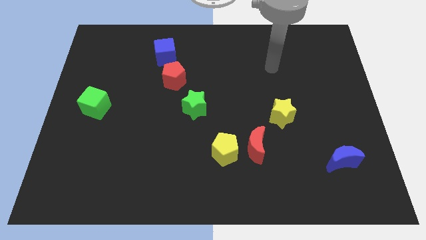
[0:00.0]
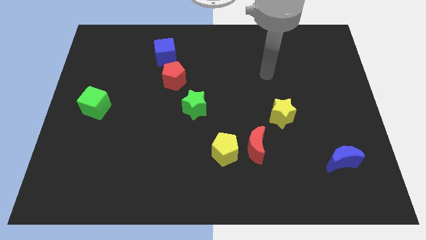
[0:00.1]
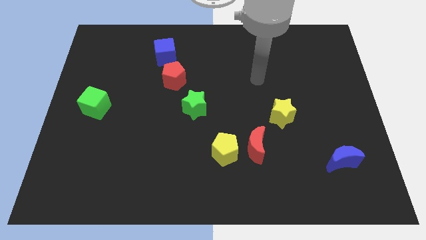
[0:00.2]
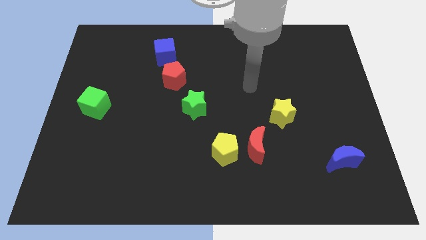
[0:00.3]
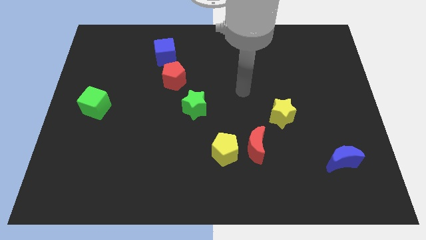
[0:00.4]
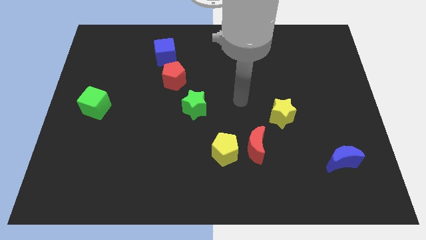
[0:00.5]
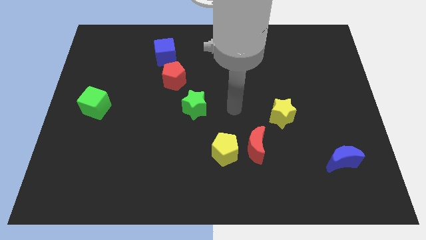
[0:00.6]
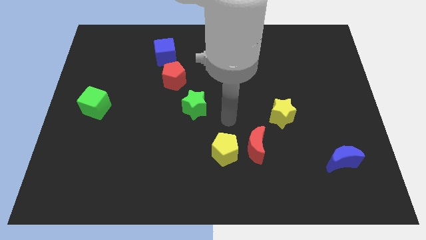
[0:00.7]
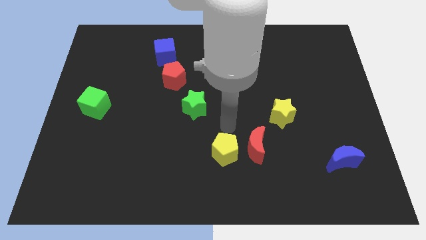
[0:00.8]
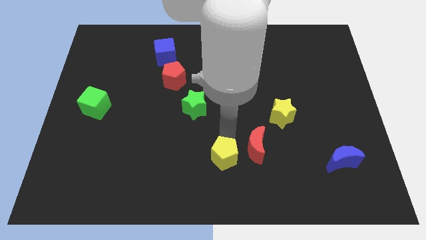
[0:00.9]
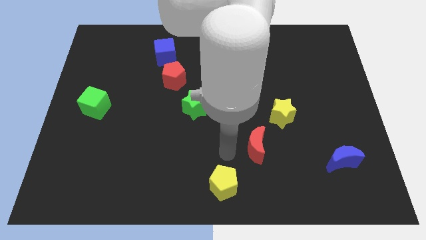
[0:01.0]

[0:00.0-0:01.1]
move the red moon away from the yellow pentagon

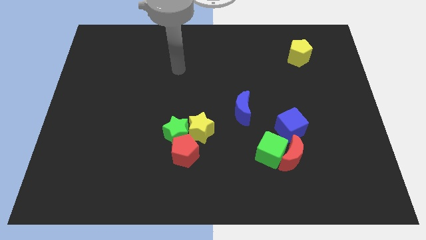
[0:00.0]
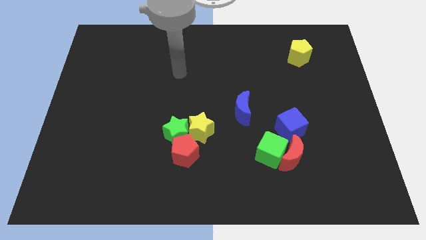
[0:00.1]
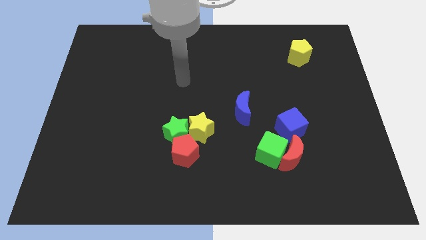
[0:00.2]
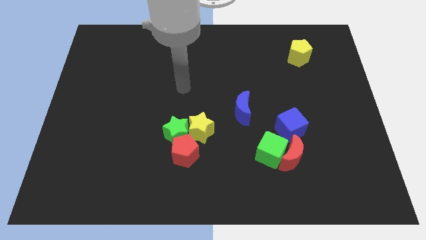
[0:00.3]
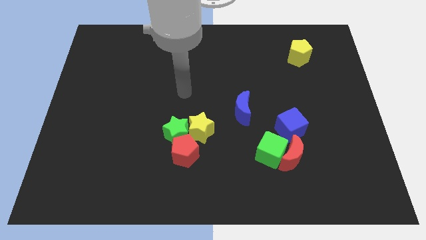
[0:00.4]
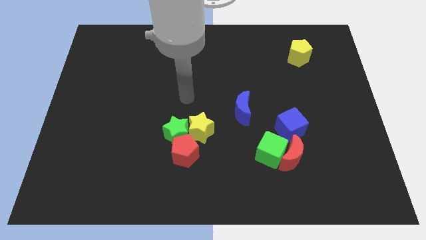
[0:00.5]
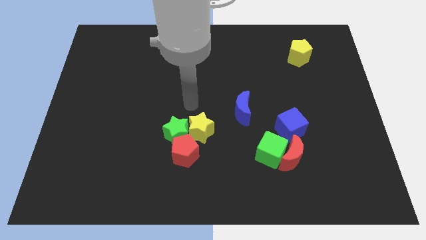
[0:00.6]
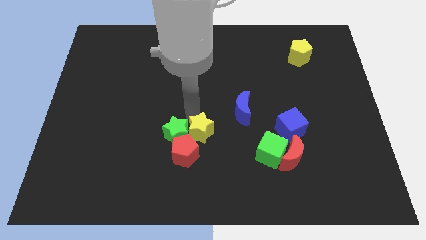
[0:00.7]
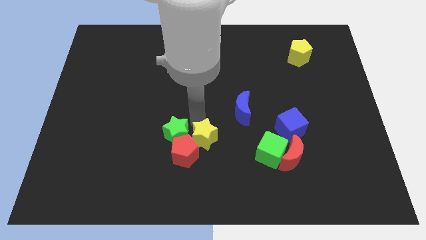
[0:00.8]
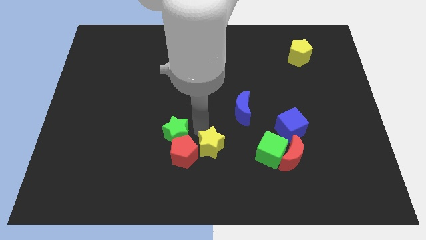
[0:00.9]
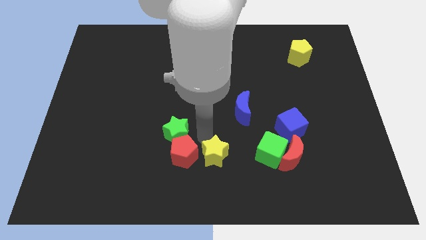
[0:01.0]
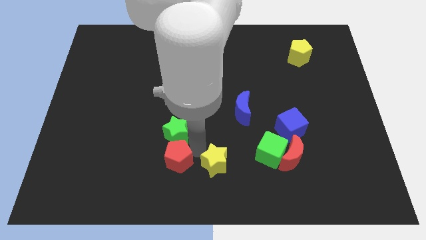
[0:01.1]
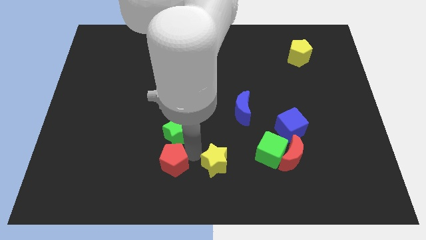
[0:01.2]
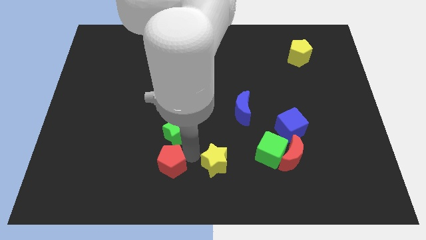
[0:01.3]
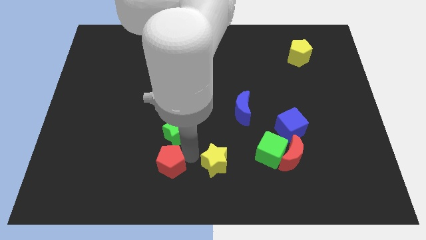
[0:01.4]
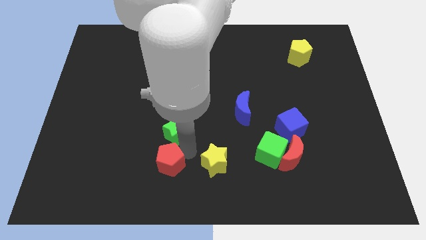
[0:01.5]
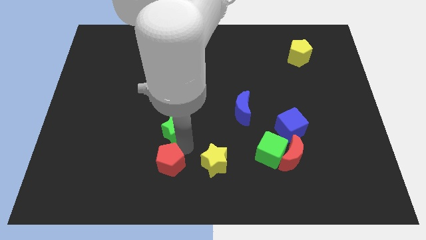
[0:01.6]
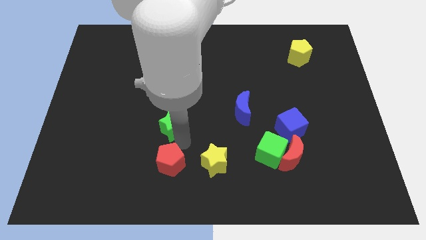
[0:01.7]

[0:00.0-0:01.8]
pull the green star apart from the yellow star and red pentagon

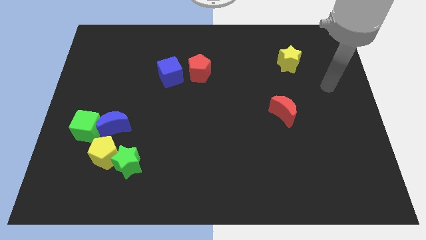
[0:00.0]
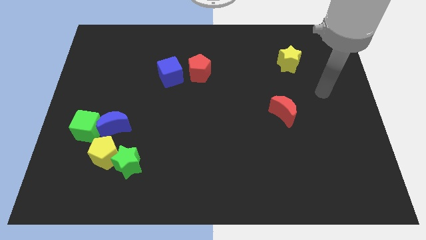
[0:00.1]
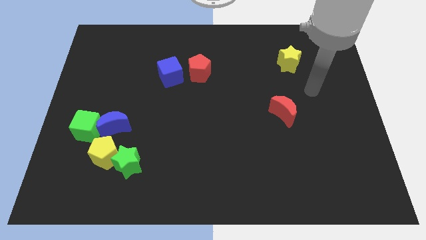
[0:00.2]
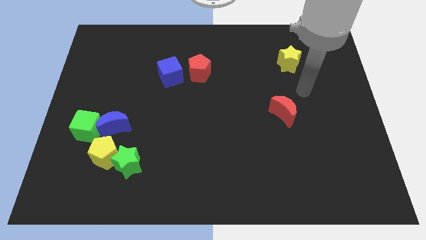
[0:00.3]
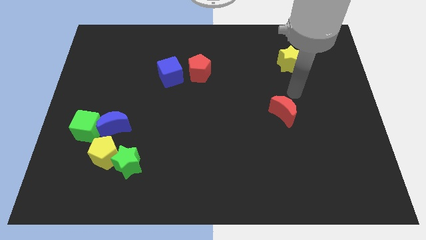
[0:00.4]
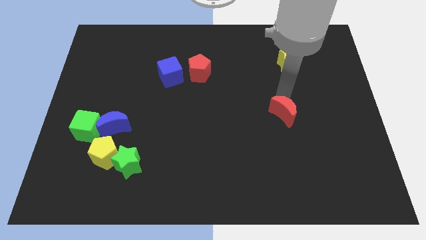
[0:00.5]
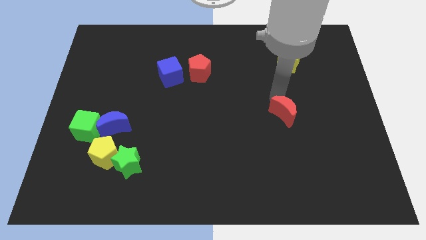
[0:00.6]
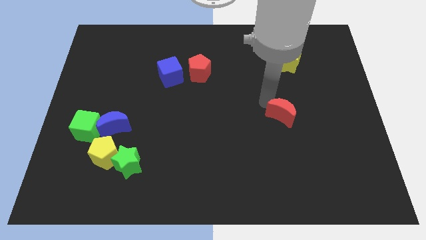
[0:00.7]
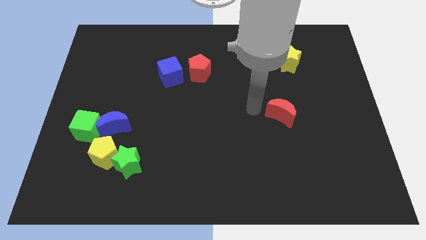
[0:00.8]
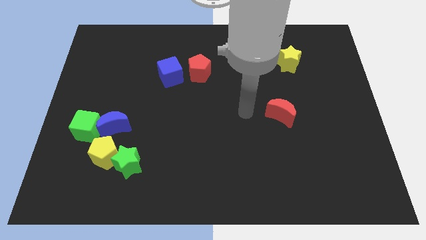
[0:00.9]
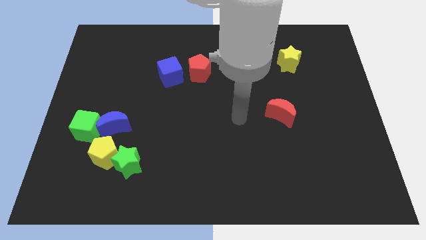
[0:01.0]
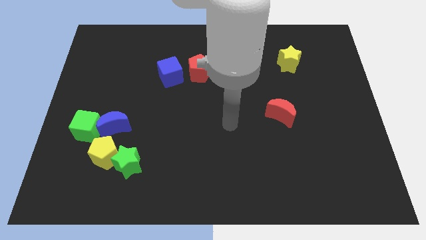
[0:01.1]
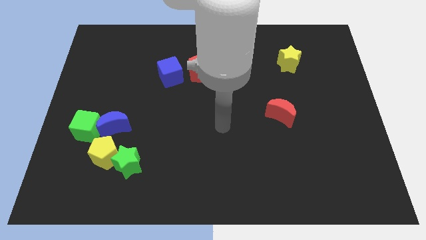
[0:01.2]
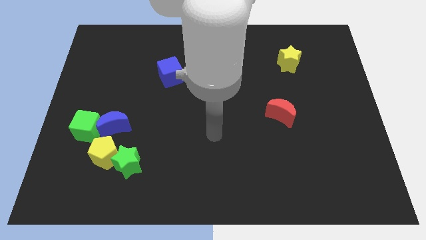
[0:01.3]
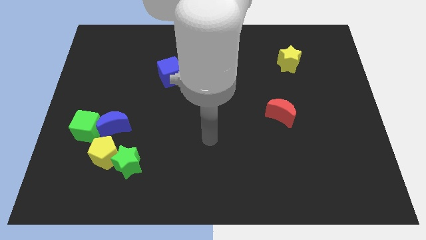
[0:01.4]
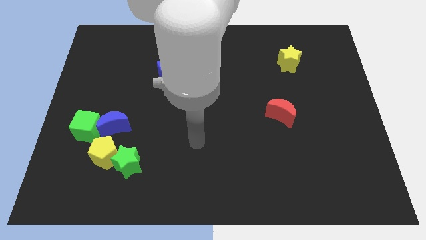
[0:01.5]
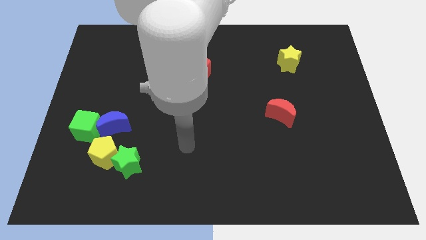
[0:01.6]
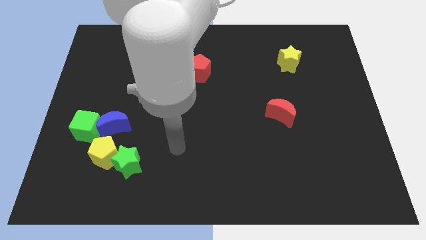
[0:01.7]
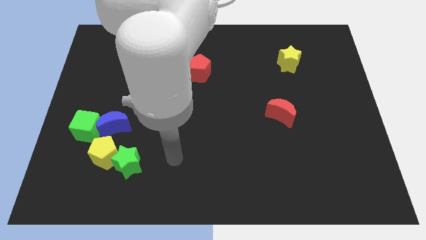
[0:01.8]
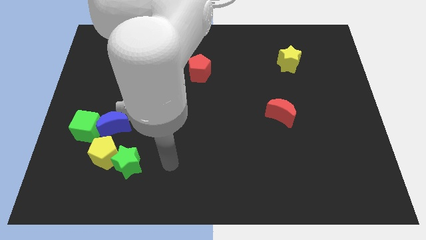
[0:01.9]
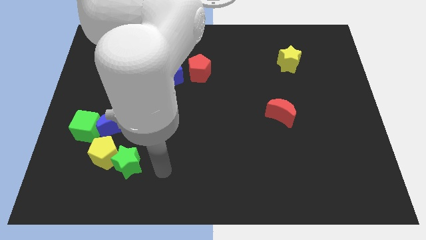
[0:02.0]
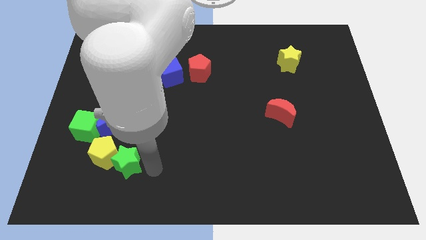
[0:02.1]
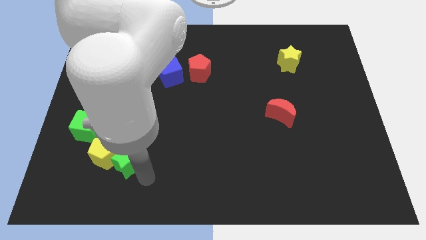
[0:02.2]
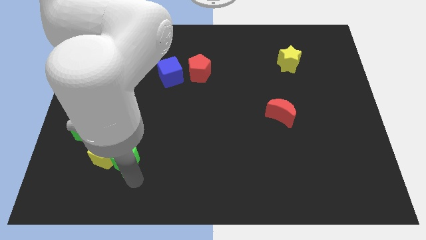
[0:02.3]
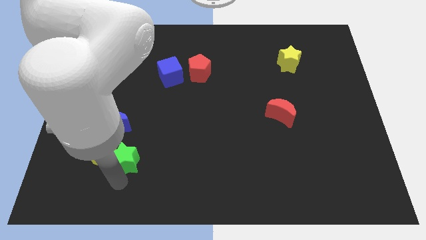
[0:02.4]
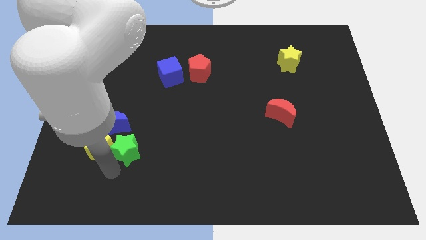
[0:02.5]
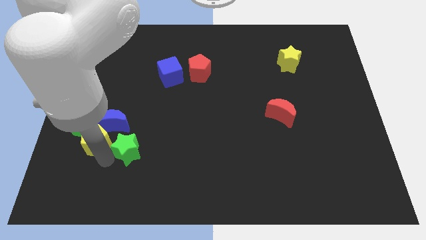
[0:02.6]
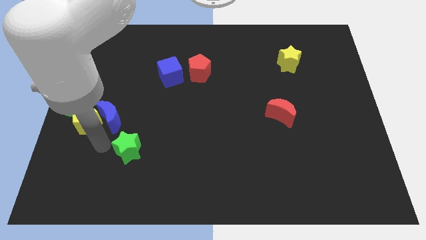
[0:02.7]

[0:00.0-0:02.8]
separate the green star from the yellow pentagon

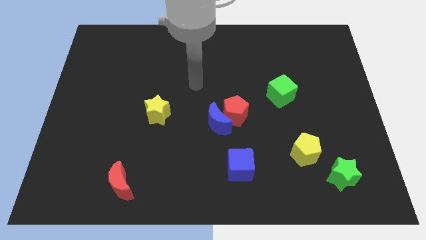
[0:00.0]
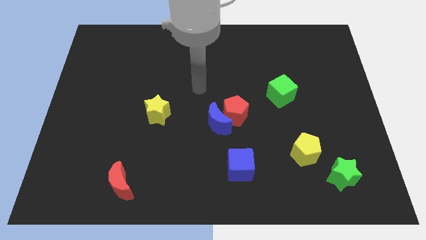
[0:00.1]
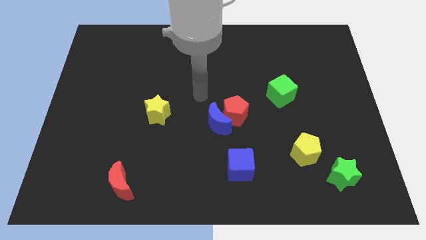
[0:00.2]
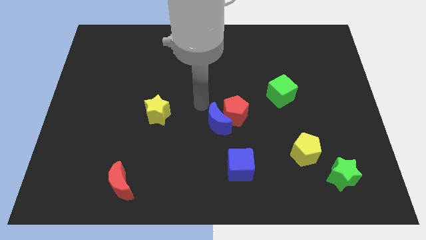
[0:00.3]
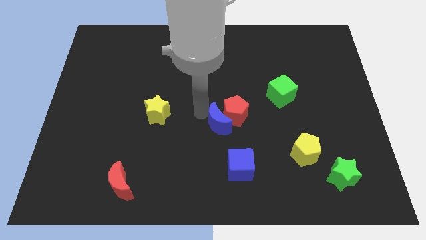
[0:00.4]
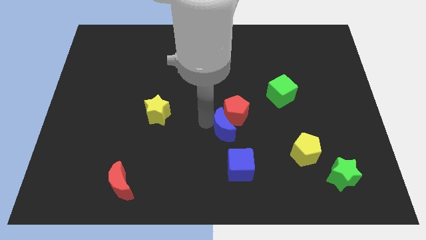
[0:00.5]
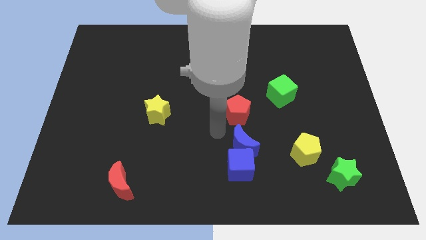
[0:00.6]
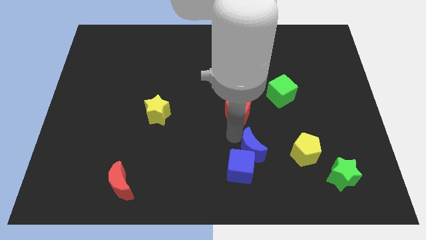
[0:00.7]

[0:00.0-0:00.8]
move the red pentagon away from the blue moon

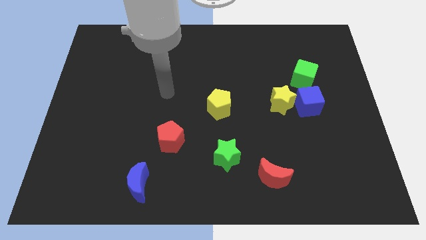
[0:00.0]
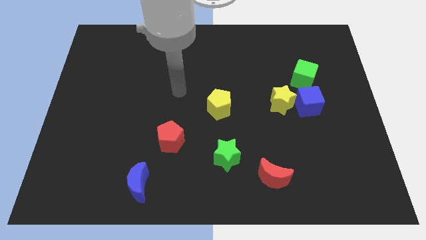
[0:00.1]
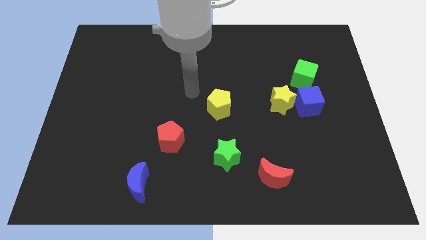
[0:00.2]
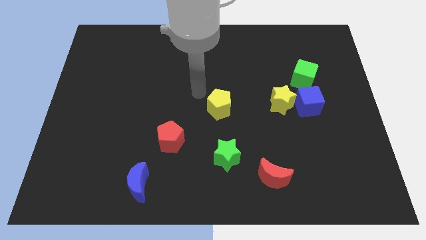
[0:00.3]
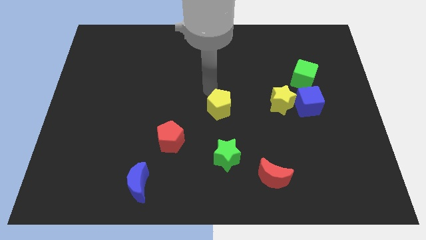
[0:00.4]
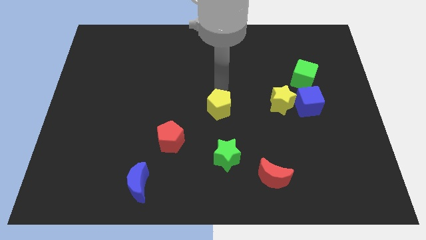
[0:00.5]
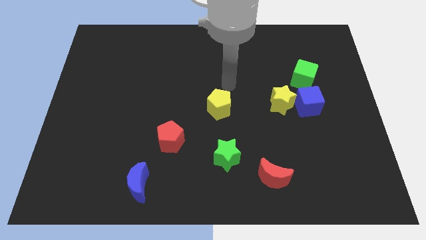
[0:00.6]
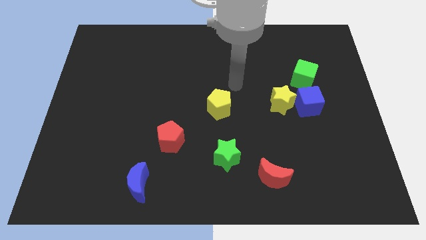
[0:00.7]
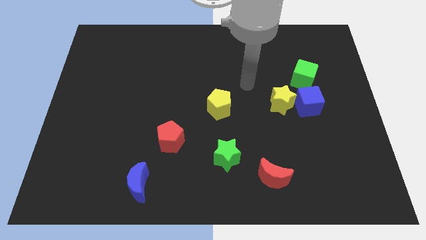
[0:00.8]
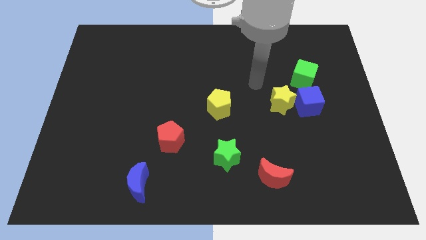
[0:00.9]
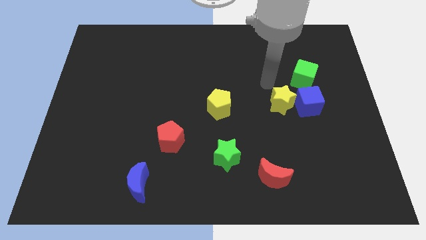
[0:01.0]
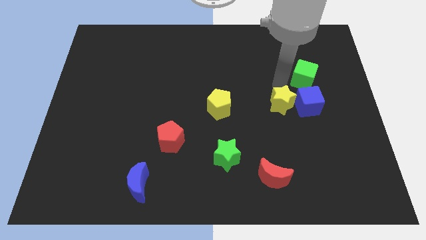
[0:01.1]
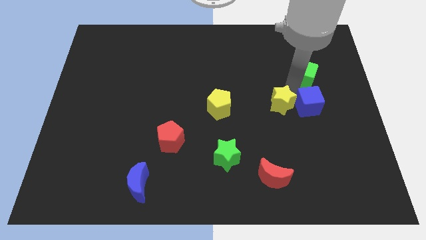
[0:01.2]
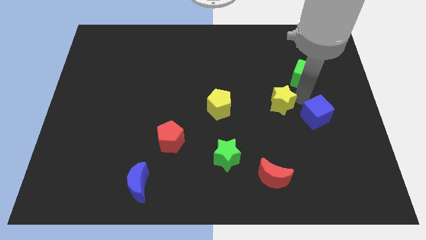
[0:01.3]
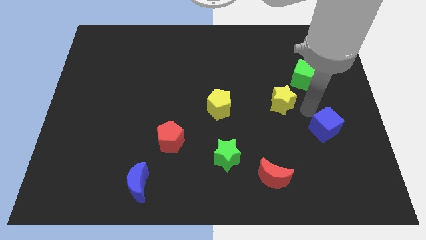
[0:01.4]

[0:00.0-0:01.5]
separate the yellow star from the blue cube

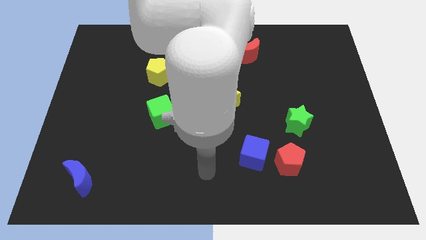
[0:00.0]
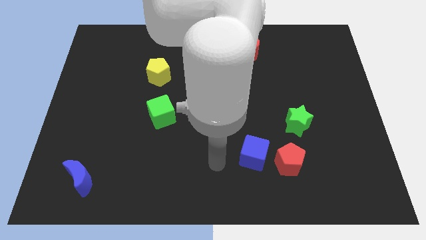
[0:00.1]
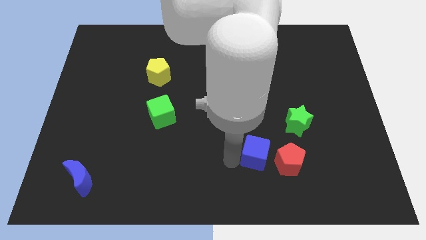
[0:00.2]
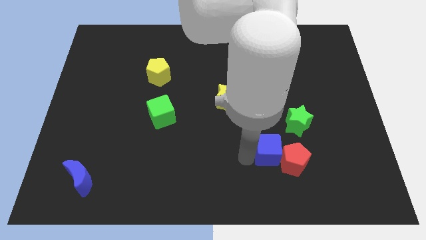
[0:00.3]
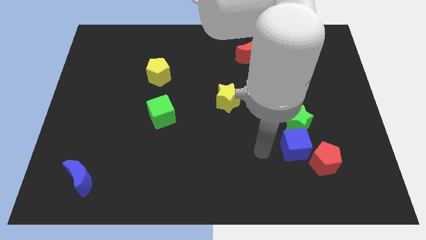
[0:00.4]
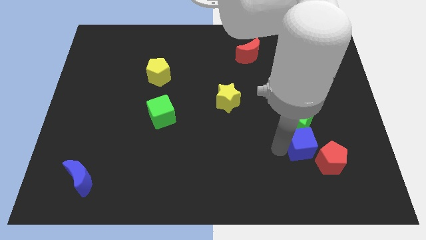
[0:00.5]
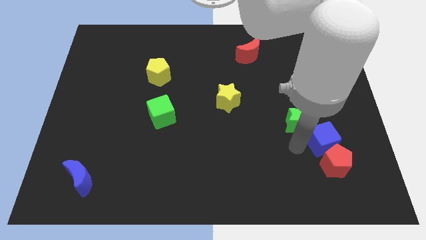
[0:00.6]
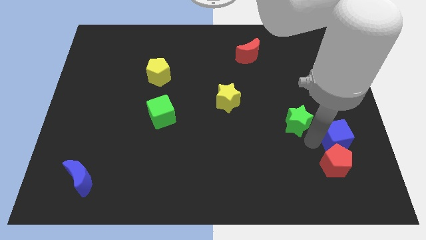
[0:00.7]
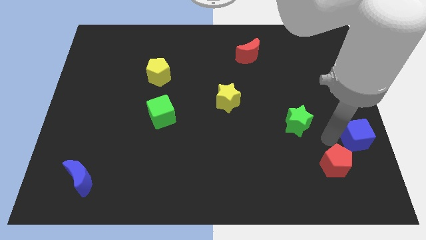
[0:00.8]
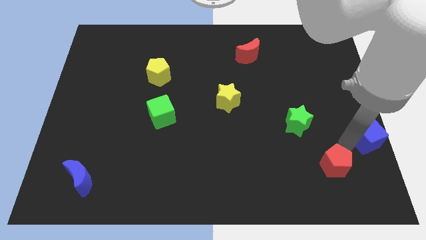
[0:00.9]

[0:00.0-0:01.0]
separate the red pentagon from the blue cube

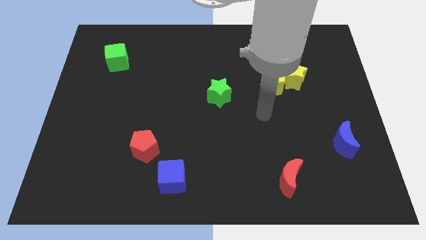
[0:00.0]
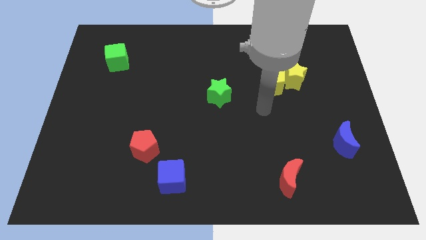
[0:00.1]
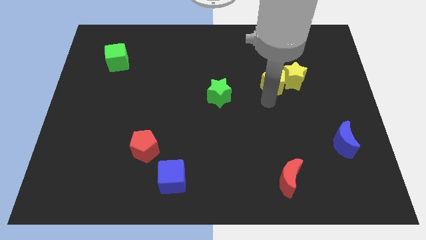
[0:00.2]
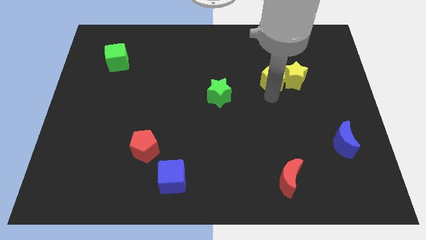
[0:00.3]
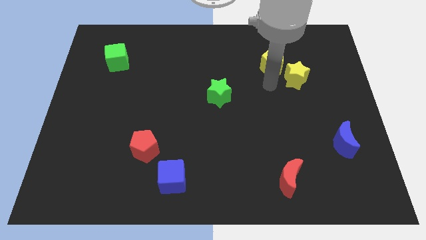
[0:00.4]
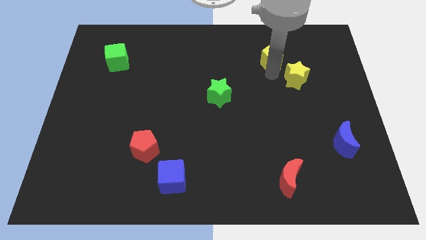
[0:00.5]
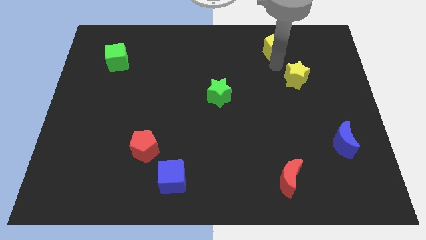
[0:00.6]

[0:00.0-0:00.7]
move the yellow star away from the yellow pentagon
